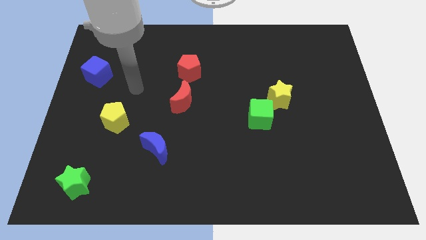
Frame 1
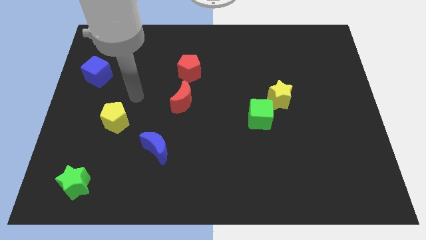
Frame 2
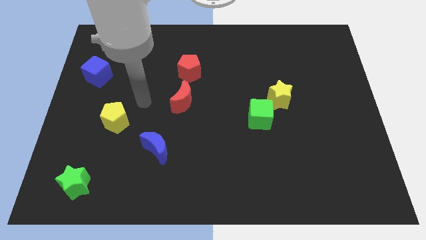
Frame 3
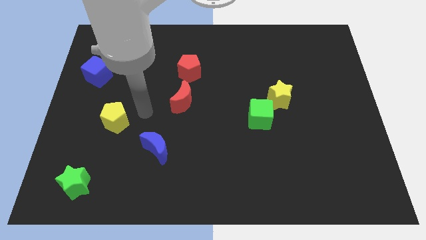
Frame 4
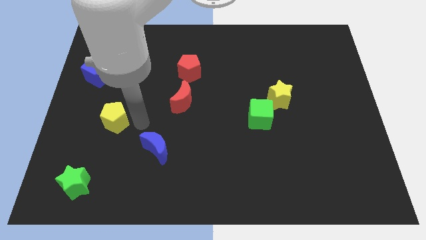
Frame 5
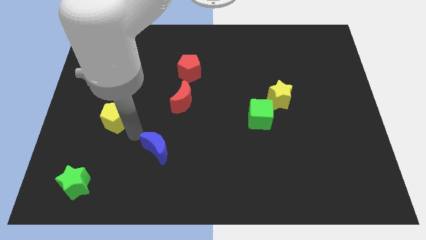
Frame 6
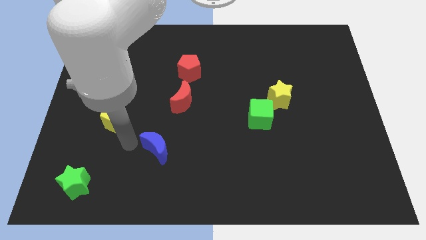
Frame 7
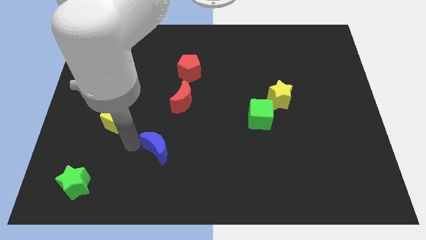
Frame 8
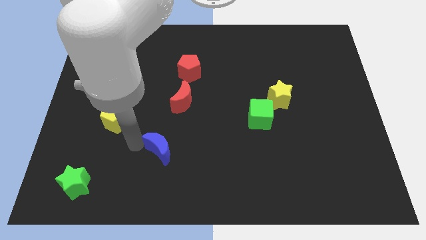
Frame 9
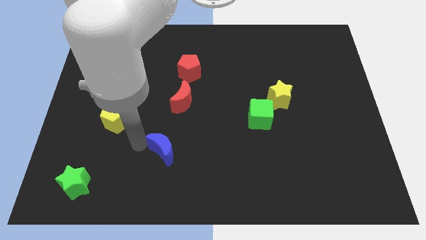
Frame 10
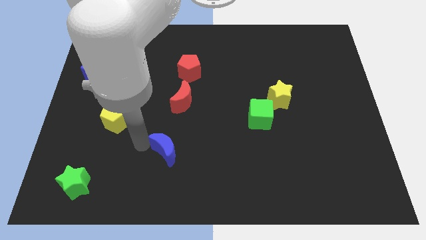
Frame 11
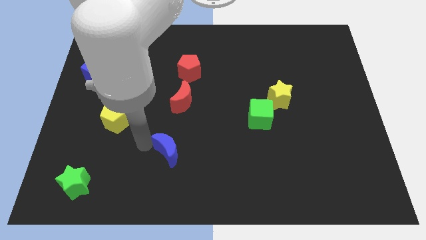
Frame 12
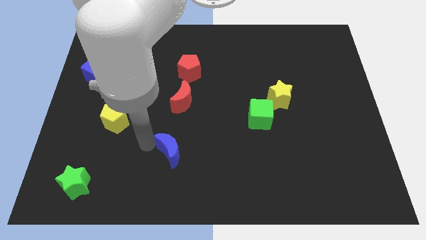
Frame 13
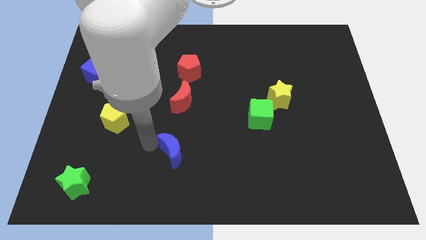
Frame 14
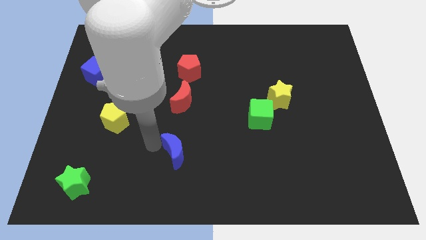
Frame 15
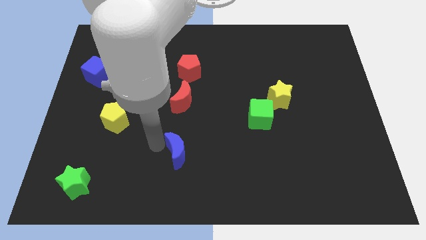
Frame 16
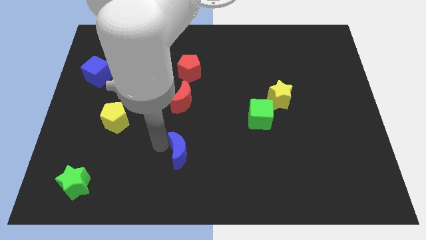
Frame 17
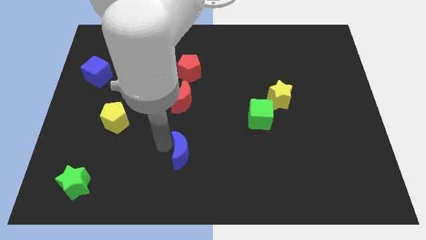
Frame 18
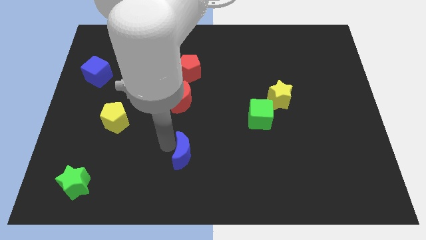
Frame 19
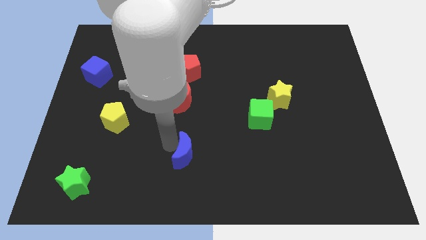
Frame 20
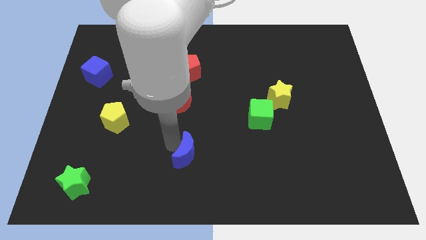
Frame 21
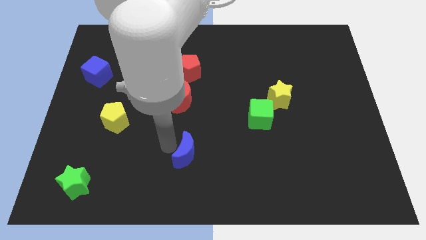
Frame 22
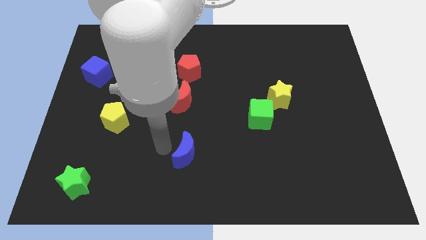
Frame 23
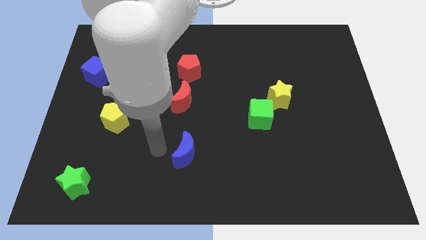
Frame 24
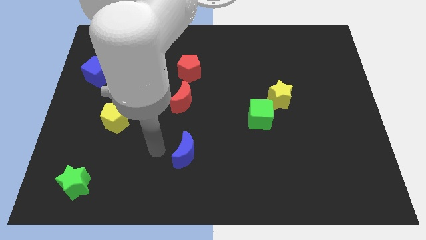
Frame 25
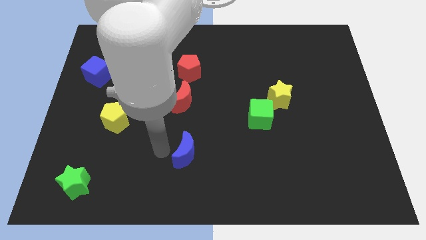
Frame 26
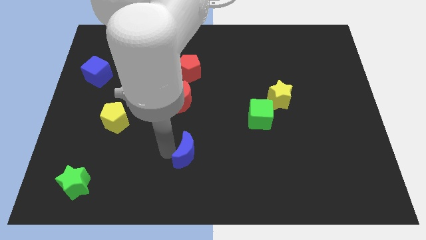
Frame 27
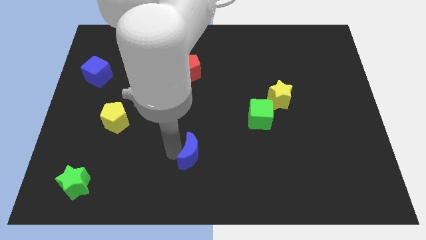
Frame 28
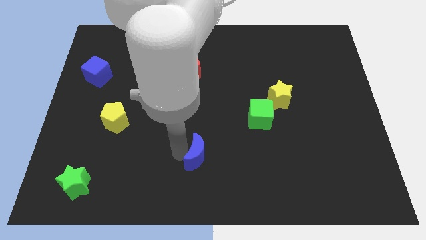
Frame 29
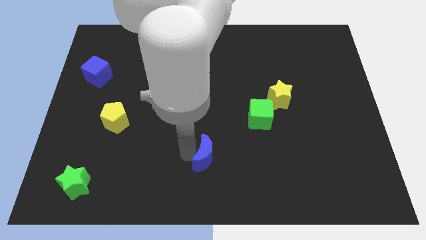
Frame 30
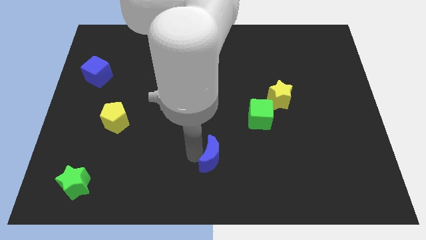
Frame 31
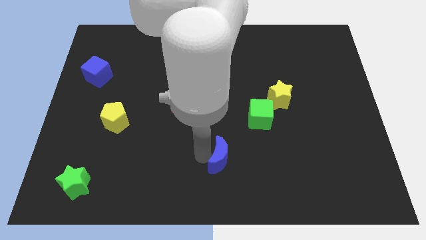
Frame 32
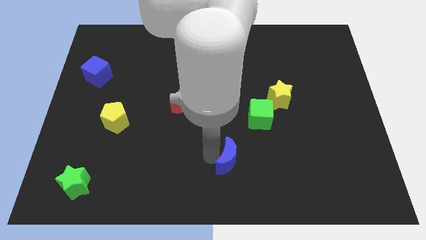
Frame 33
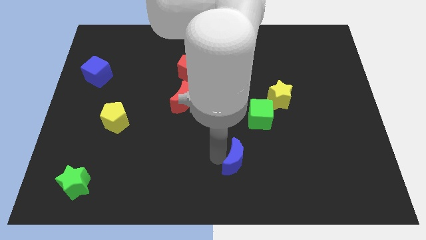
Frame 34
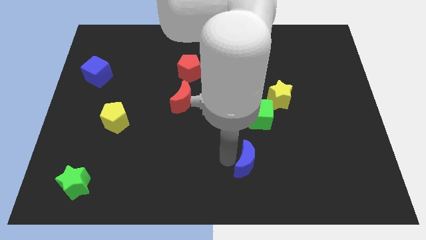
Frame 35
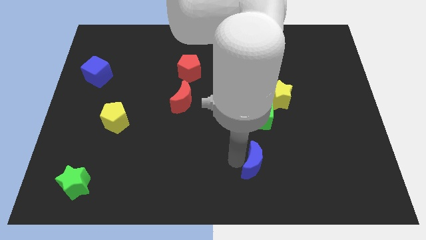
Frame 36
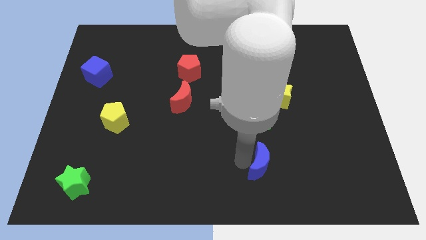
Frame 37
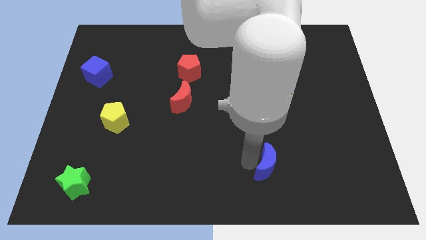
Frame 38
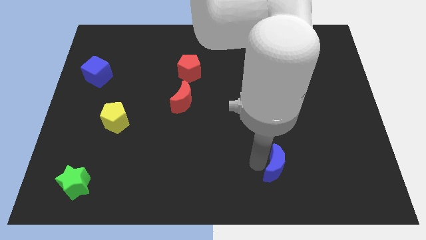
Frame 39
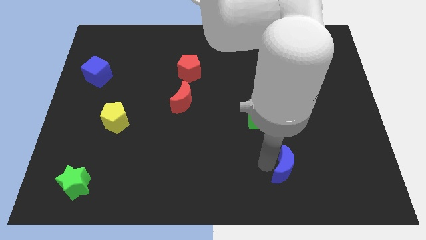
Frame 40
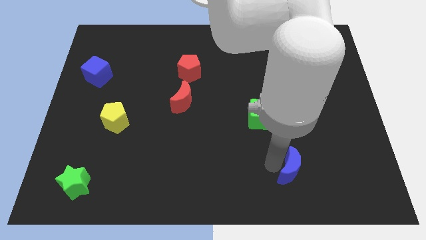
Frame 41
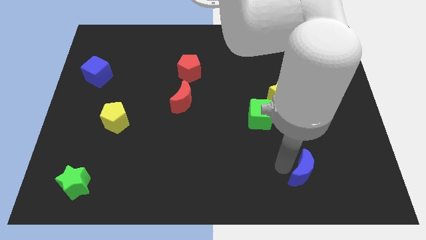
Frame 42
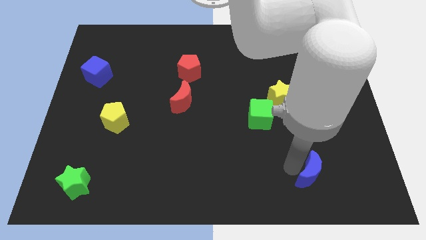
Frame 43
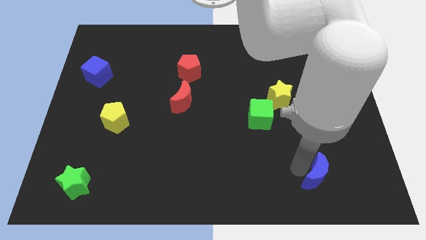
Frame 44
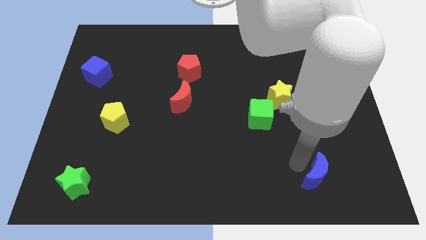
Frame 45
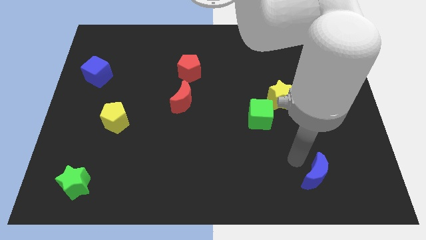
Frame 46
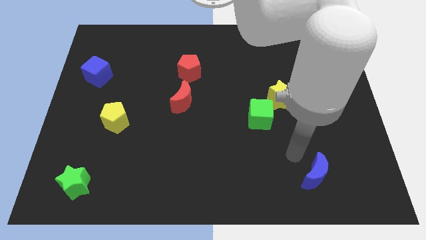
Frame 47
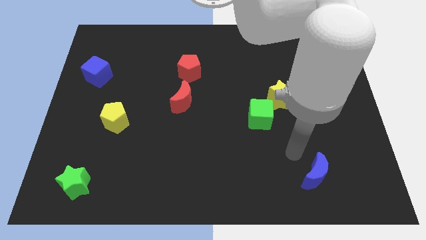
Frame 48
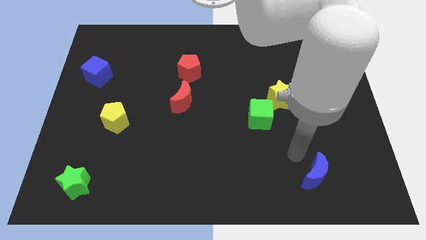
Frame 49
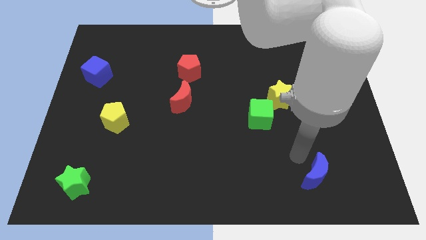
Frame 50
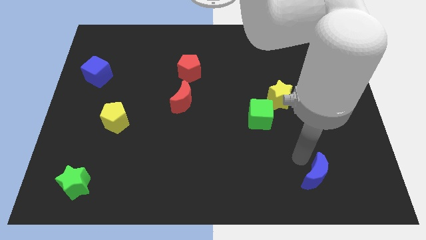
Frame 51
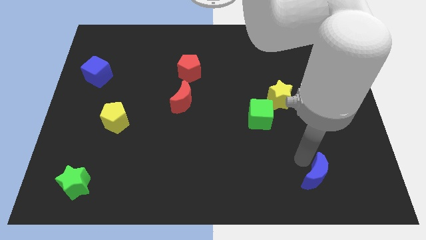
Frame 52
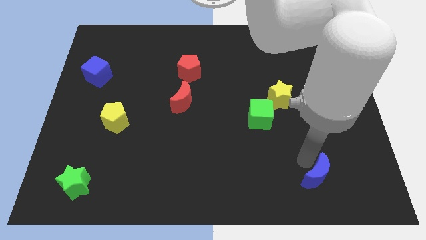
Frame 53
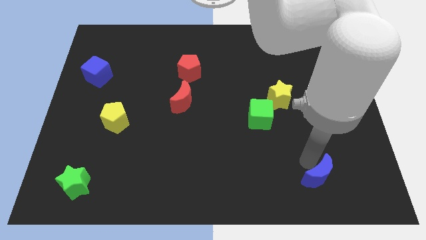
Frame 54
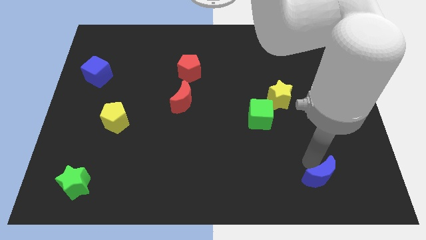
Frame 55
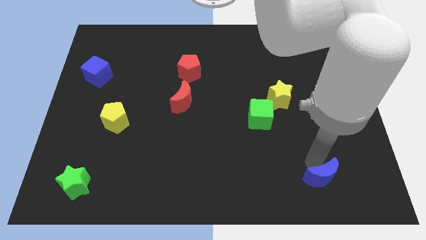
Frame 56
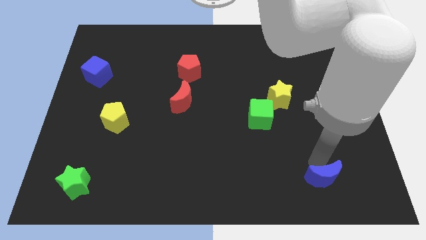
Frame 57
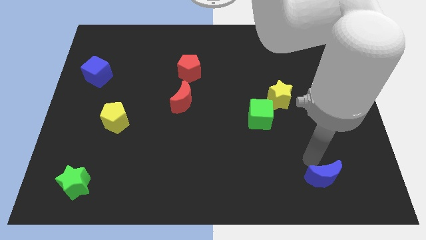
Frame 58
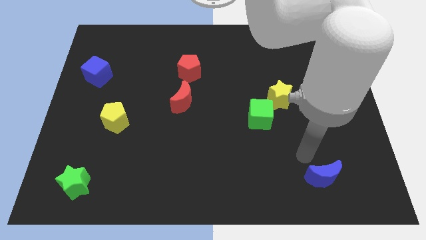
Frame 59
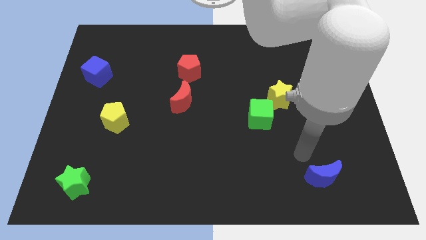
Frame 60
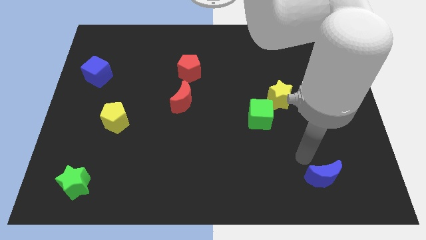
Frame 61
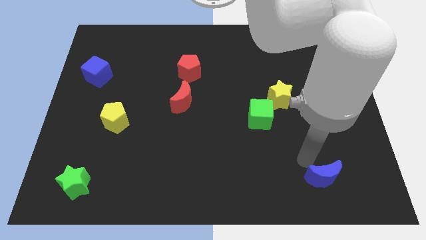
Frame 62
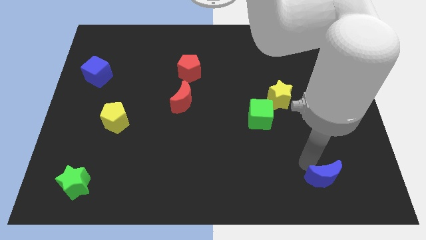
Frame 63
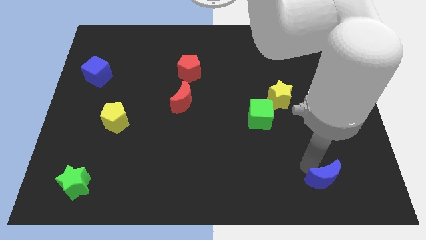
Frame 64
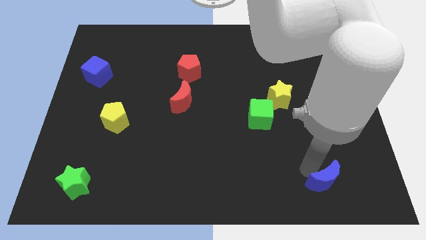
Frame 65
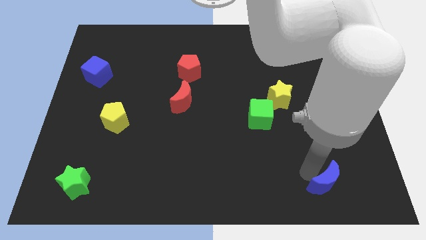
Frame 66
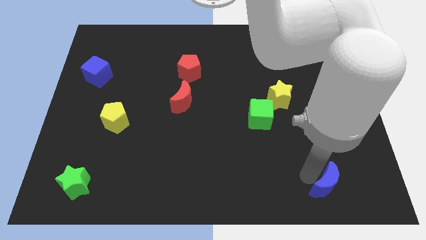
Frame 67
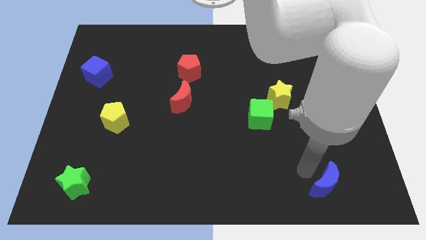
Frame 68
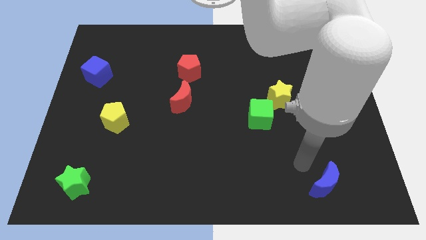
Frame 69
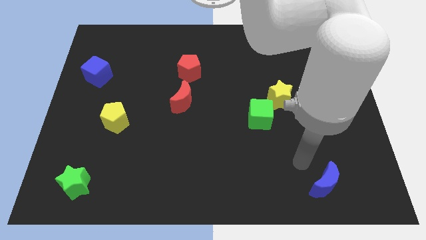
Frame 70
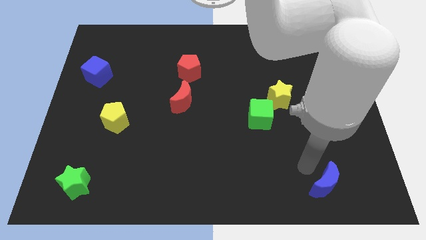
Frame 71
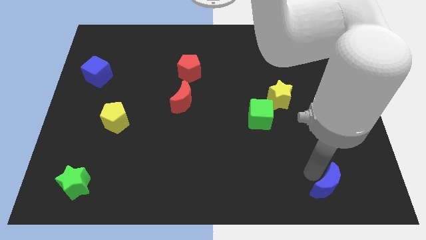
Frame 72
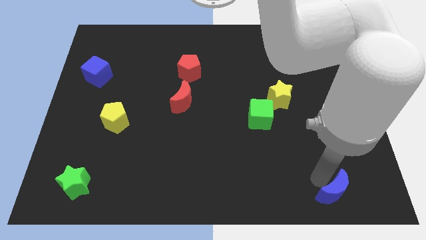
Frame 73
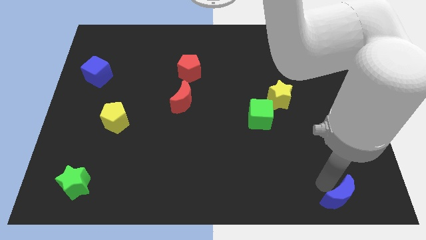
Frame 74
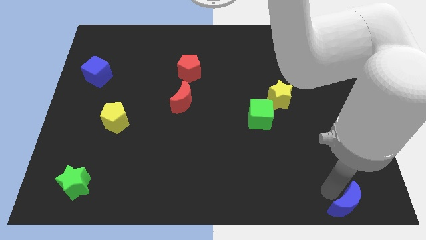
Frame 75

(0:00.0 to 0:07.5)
push the blue moon to the lower right corner
